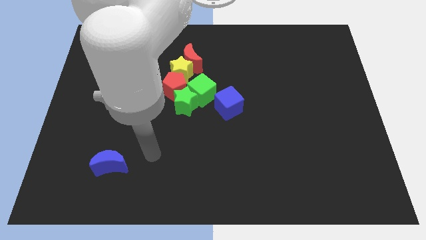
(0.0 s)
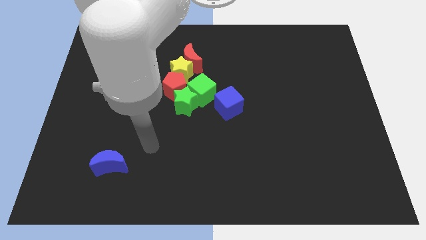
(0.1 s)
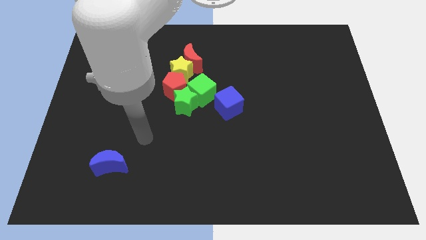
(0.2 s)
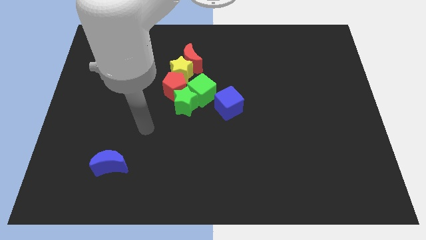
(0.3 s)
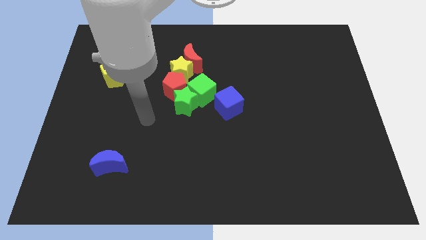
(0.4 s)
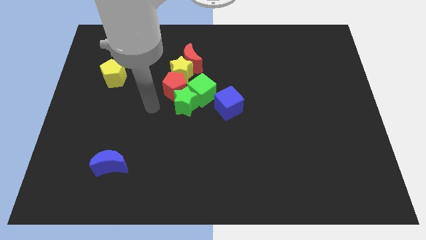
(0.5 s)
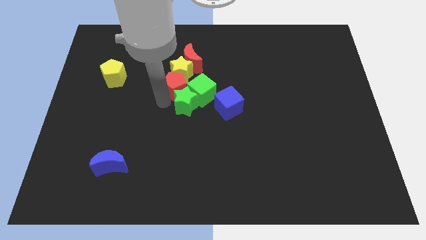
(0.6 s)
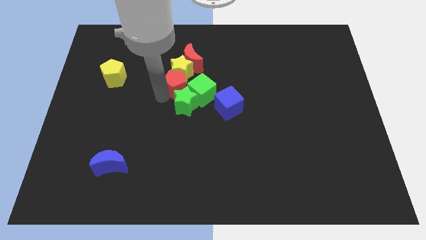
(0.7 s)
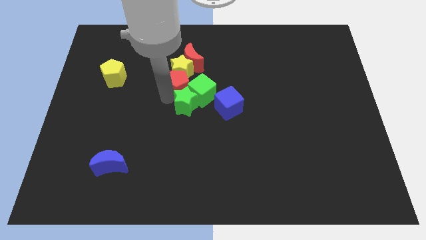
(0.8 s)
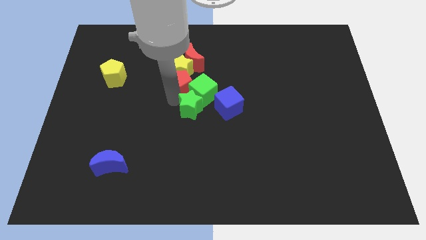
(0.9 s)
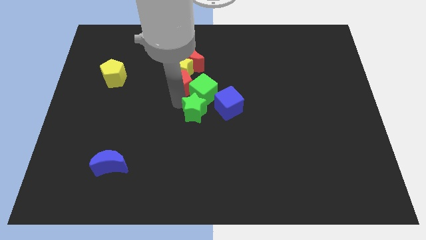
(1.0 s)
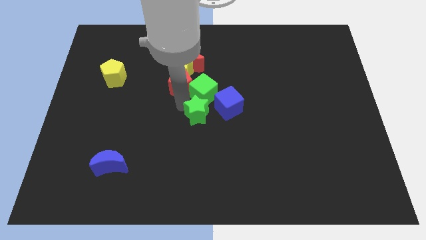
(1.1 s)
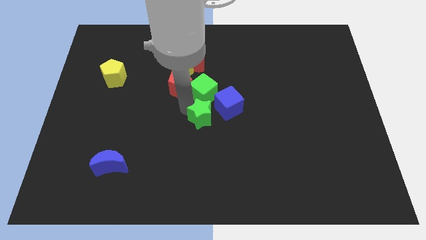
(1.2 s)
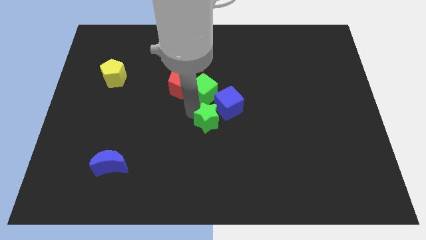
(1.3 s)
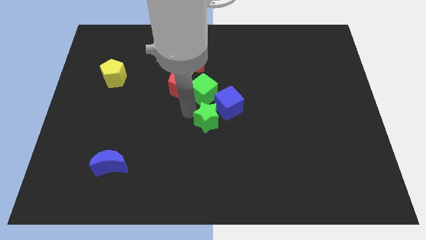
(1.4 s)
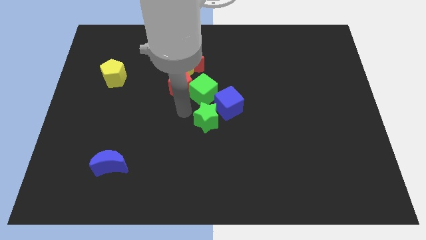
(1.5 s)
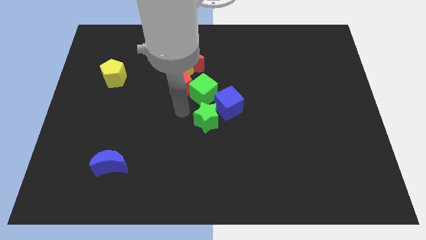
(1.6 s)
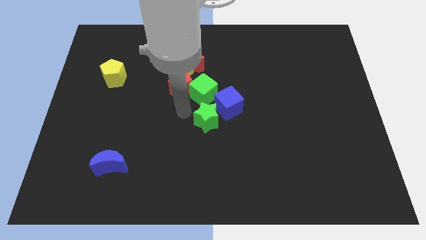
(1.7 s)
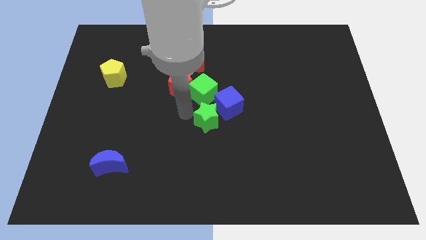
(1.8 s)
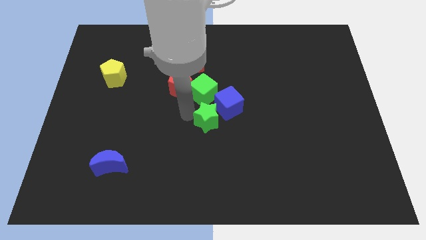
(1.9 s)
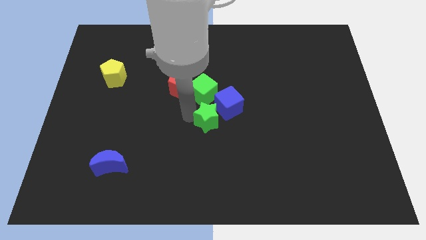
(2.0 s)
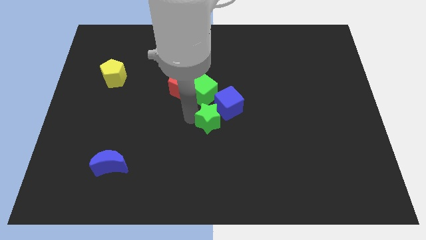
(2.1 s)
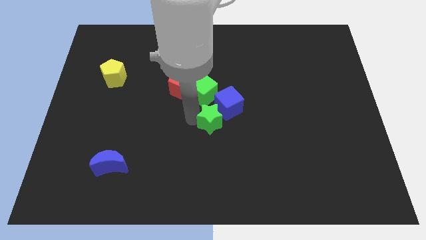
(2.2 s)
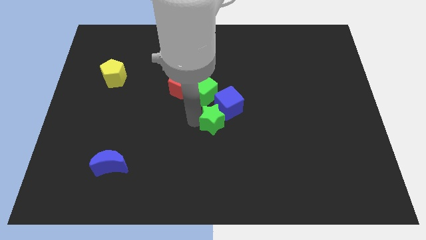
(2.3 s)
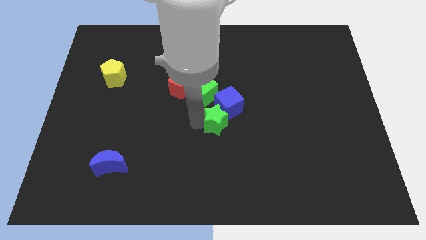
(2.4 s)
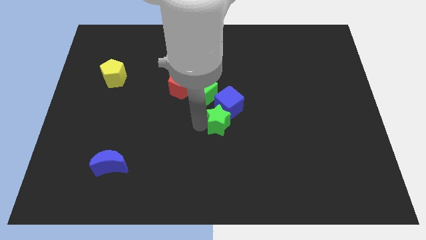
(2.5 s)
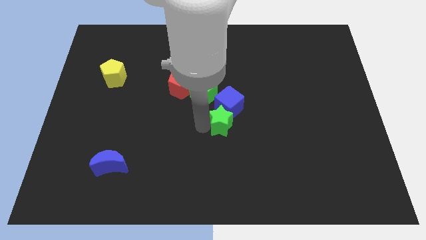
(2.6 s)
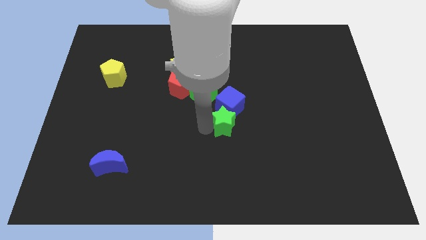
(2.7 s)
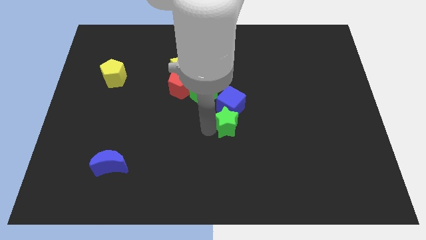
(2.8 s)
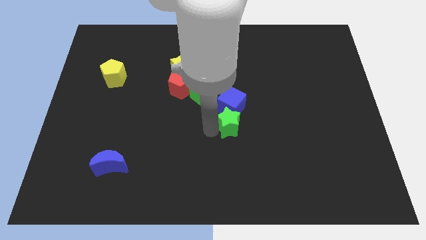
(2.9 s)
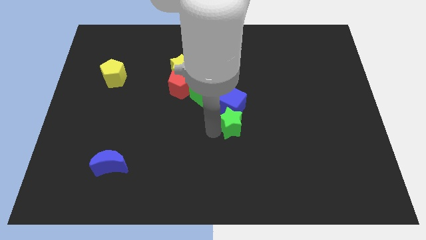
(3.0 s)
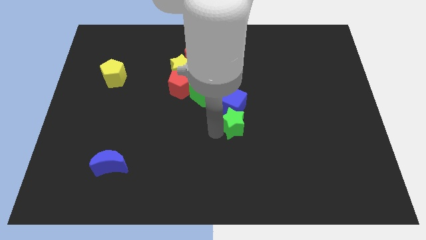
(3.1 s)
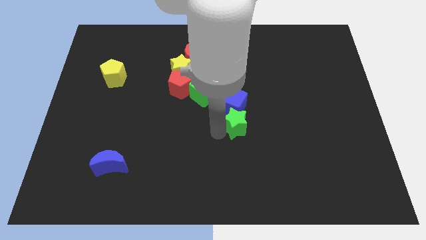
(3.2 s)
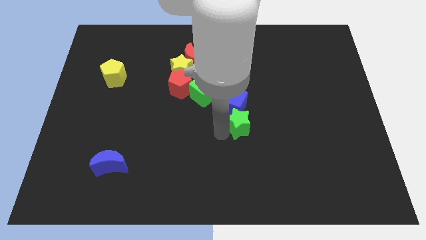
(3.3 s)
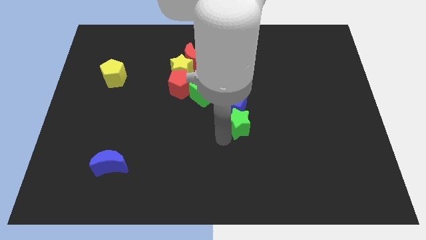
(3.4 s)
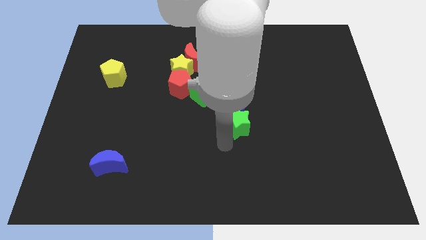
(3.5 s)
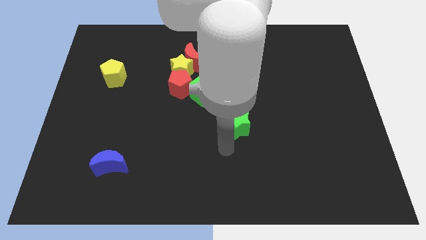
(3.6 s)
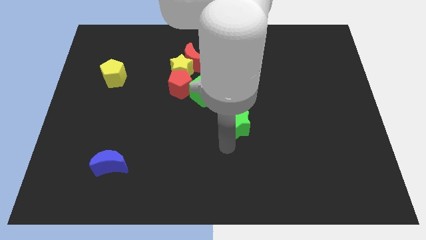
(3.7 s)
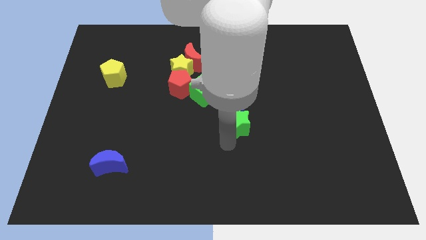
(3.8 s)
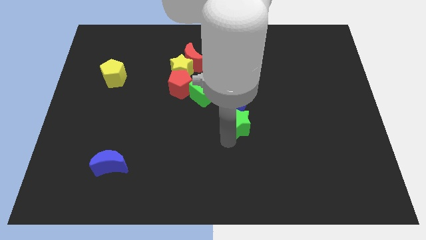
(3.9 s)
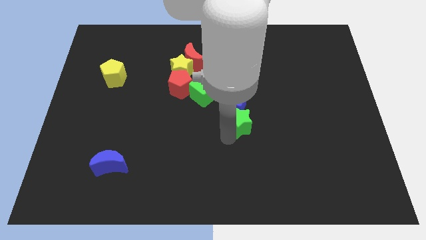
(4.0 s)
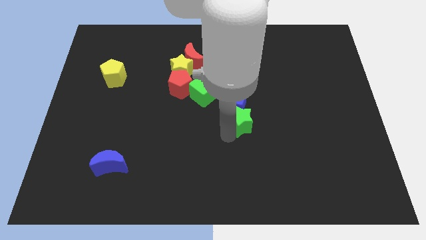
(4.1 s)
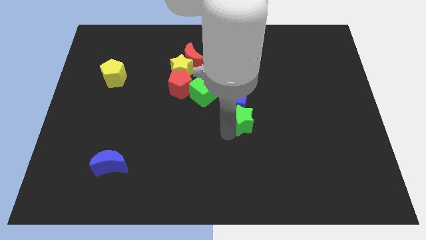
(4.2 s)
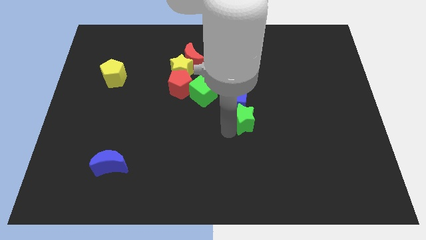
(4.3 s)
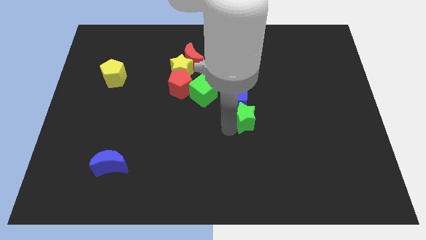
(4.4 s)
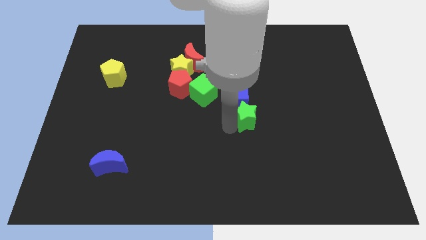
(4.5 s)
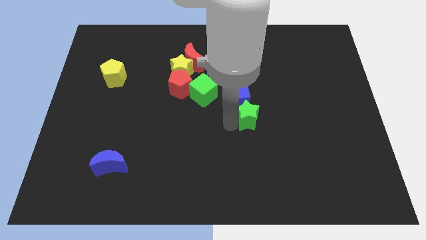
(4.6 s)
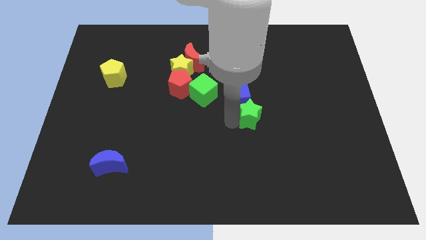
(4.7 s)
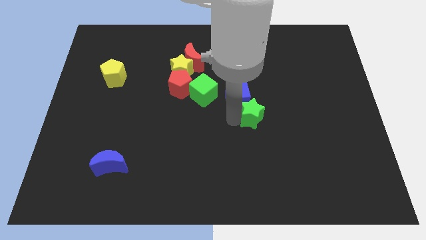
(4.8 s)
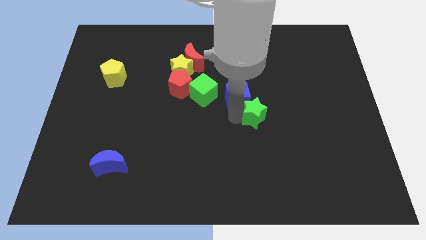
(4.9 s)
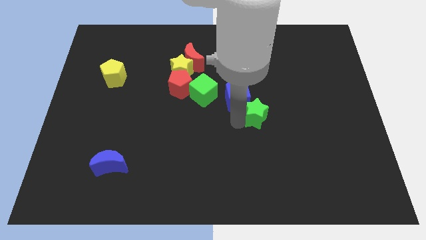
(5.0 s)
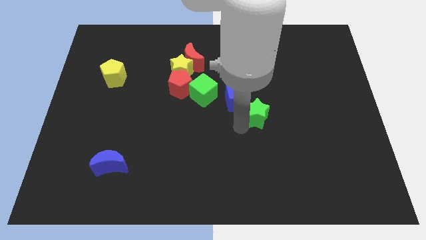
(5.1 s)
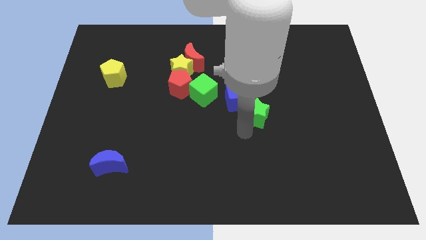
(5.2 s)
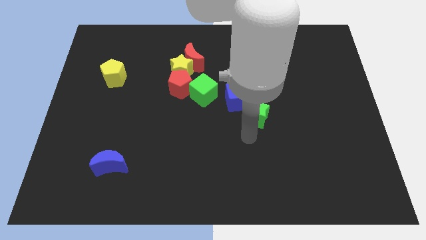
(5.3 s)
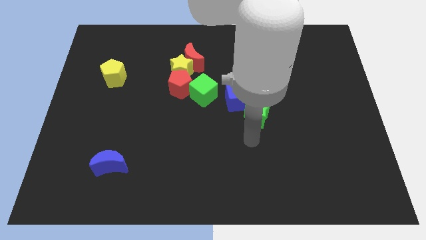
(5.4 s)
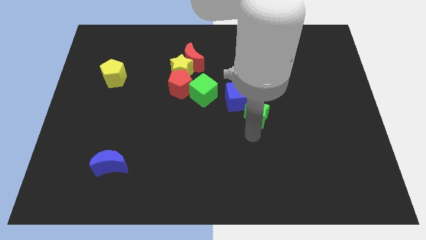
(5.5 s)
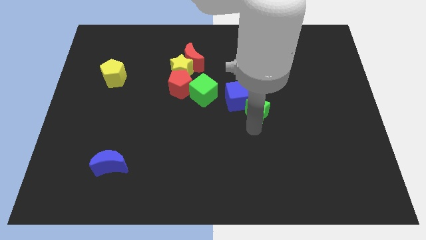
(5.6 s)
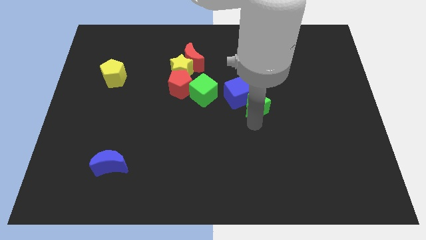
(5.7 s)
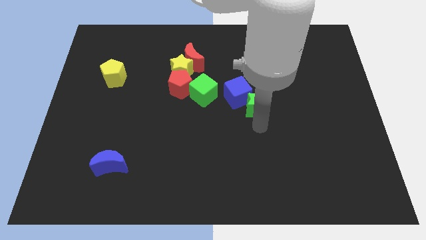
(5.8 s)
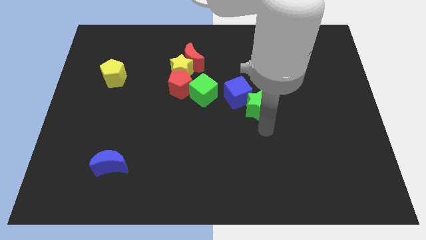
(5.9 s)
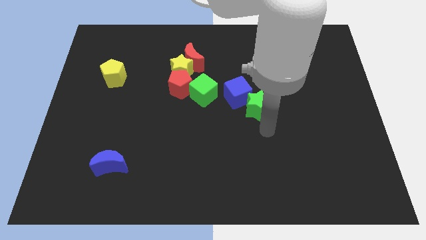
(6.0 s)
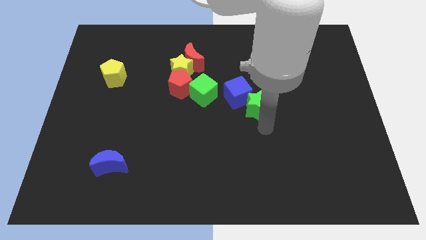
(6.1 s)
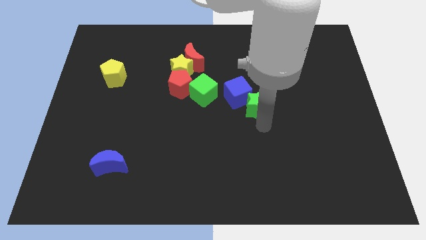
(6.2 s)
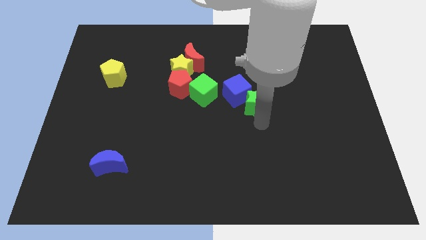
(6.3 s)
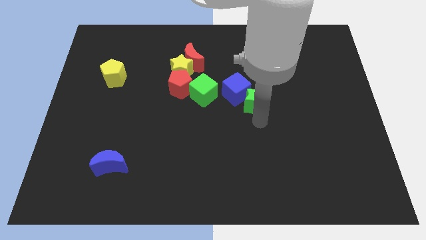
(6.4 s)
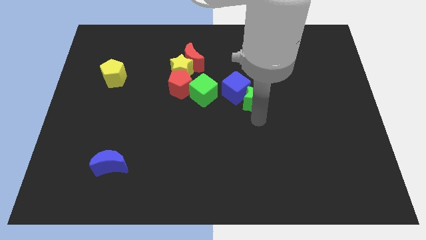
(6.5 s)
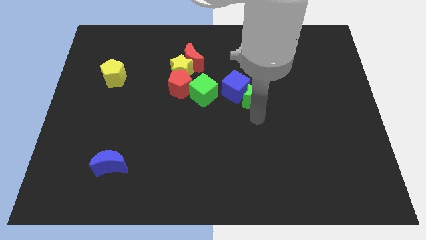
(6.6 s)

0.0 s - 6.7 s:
move the green star up and to the right somewhat

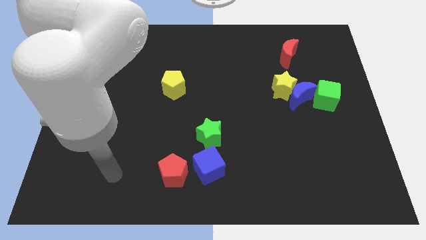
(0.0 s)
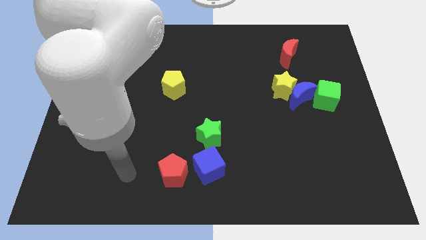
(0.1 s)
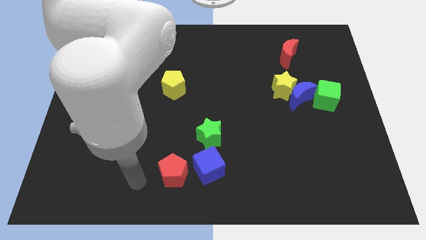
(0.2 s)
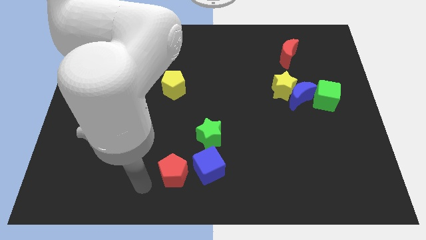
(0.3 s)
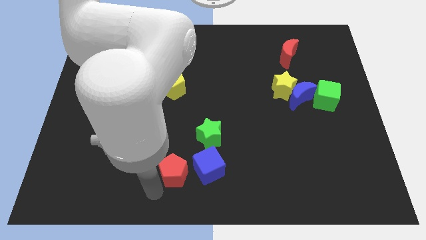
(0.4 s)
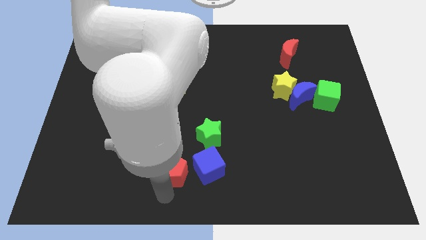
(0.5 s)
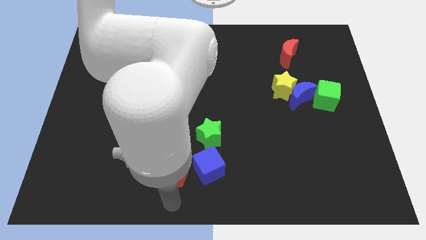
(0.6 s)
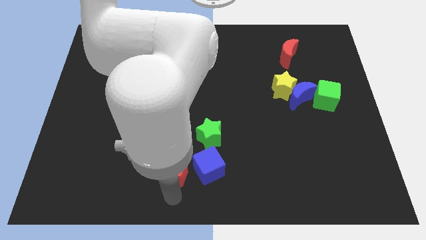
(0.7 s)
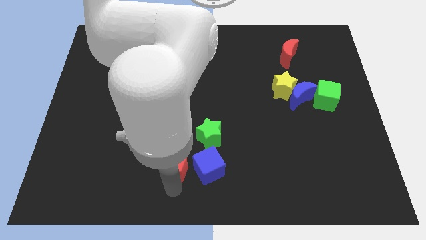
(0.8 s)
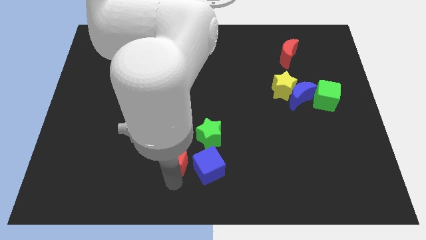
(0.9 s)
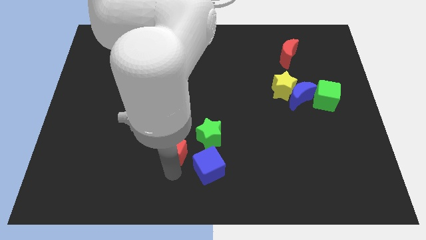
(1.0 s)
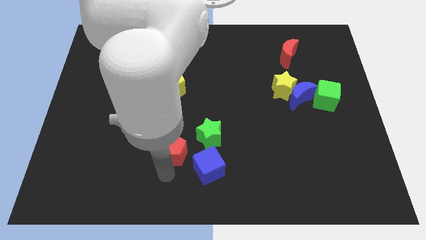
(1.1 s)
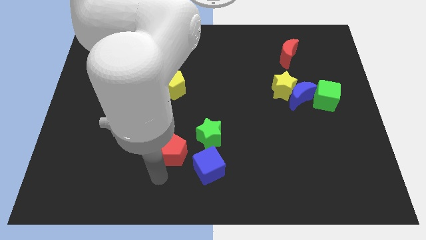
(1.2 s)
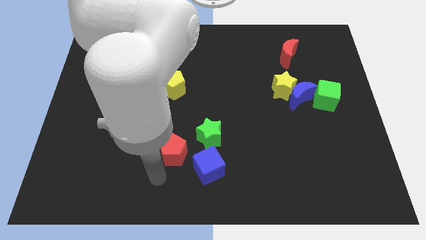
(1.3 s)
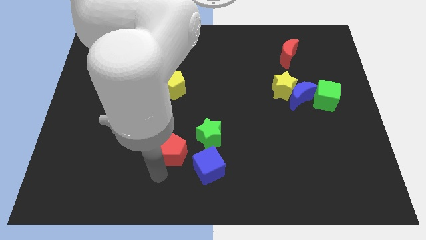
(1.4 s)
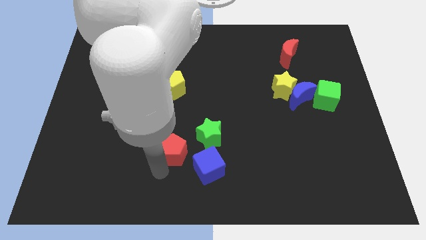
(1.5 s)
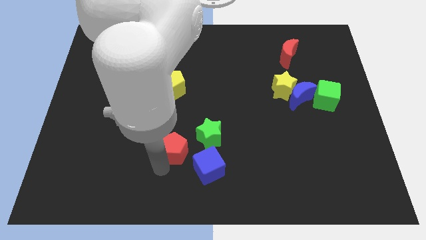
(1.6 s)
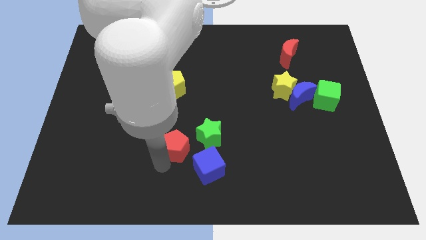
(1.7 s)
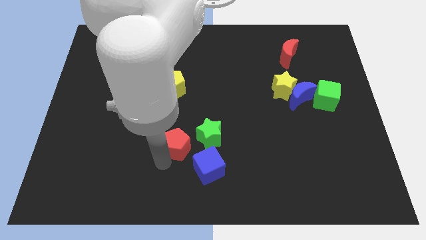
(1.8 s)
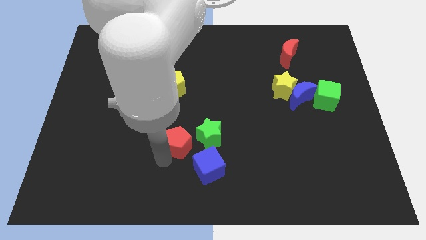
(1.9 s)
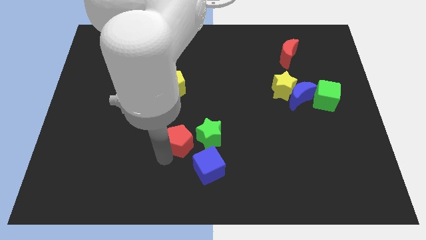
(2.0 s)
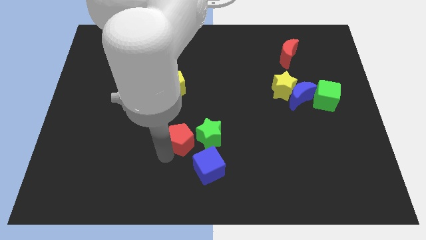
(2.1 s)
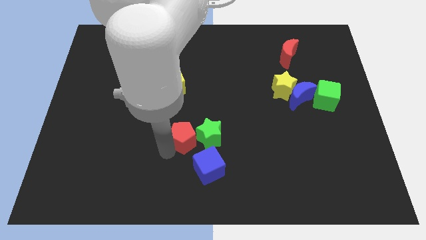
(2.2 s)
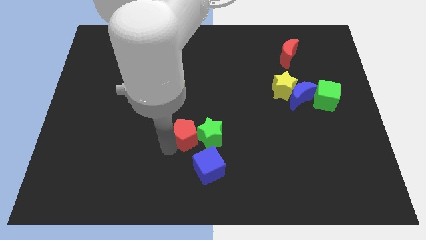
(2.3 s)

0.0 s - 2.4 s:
slide the red pentagon a little up and then to the right
